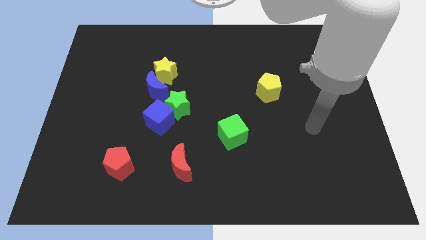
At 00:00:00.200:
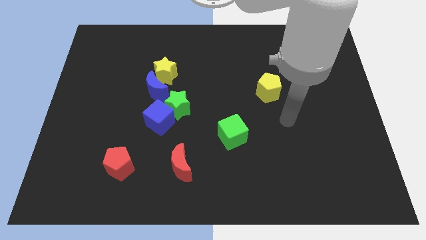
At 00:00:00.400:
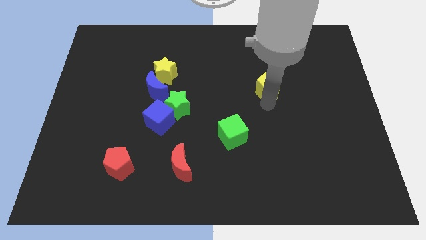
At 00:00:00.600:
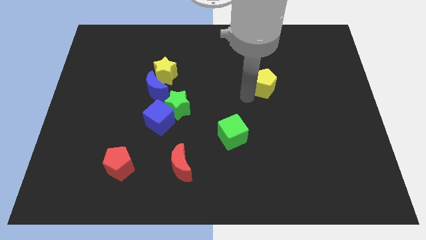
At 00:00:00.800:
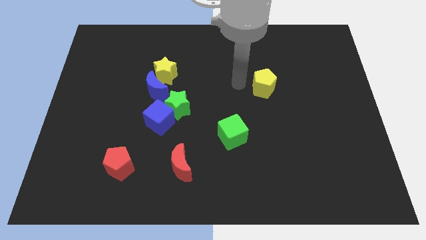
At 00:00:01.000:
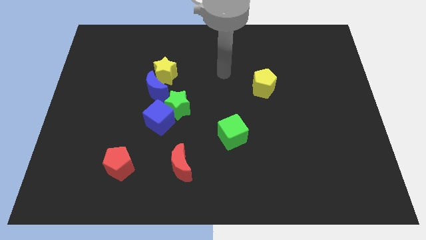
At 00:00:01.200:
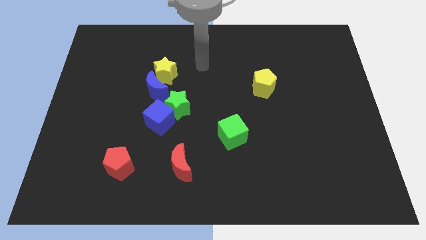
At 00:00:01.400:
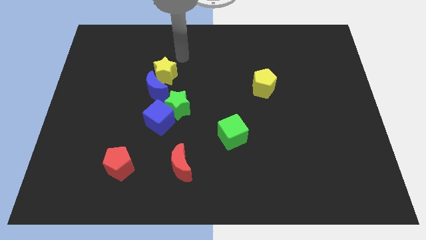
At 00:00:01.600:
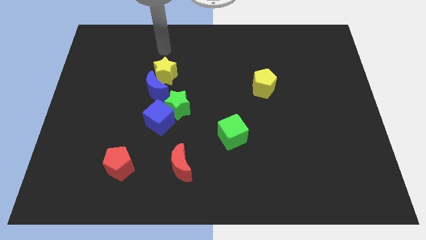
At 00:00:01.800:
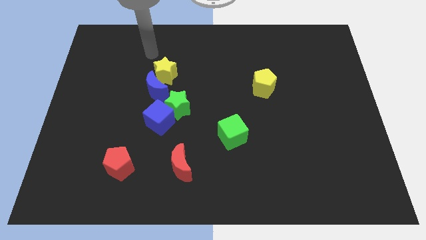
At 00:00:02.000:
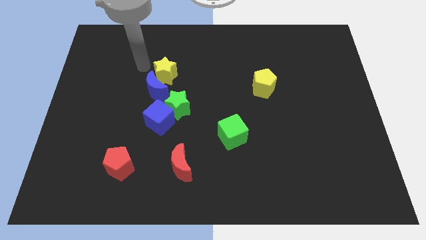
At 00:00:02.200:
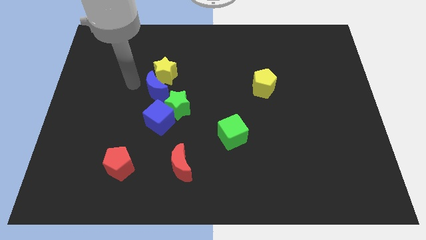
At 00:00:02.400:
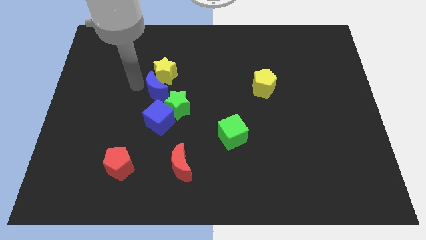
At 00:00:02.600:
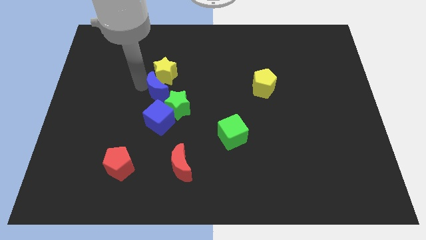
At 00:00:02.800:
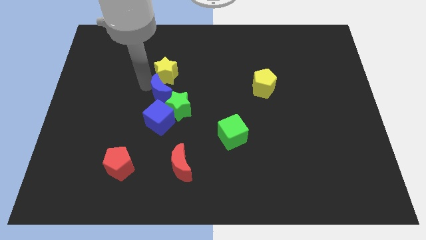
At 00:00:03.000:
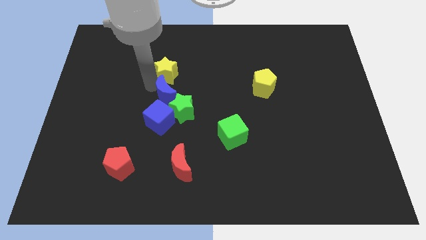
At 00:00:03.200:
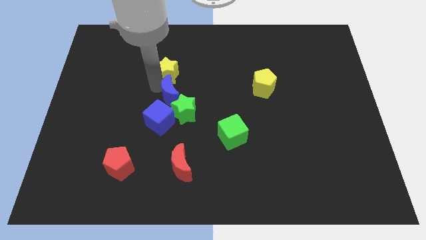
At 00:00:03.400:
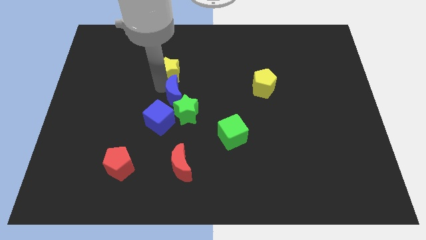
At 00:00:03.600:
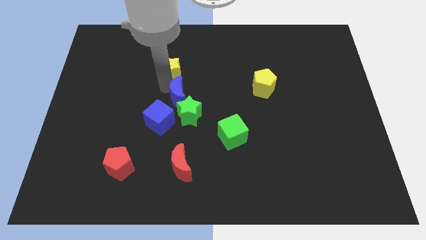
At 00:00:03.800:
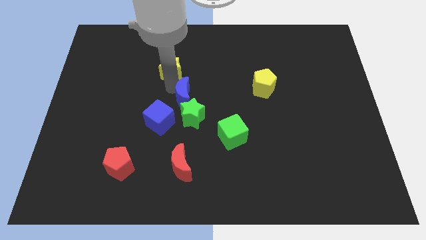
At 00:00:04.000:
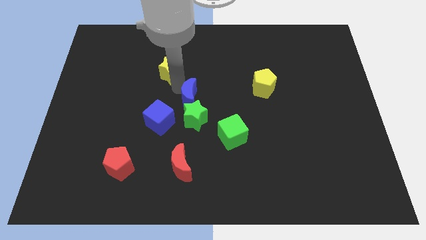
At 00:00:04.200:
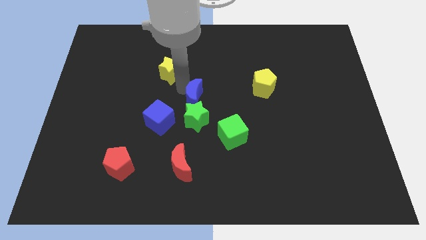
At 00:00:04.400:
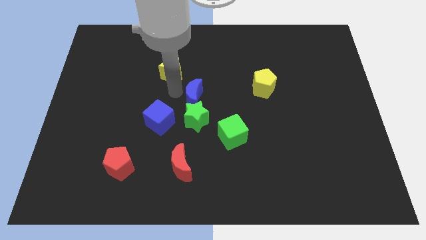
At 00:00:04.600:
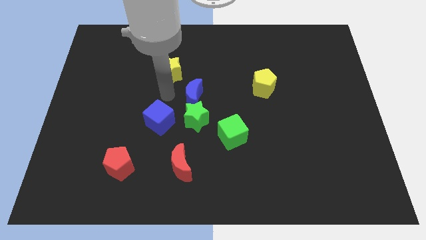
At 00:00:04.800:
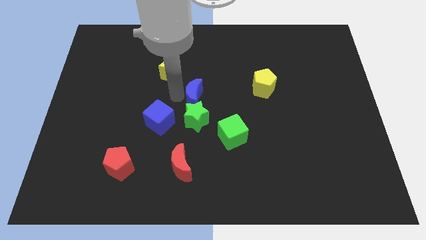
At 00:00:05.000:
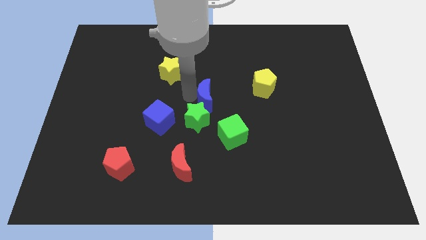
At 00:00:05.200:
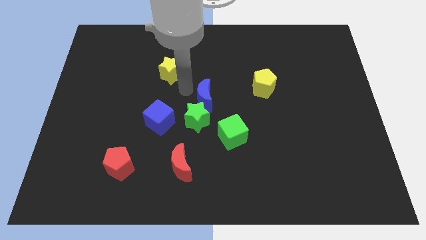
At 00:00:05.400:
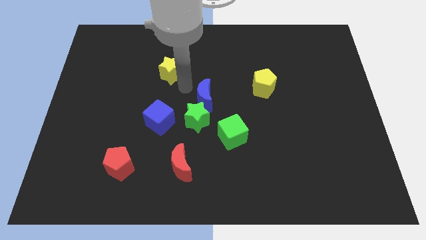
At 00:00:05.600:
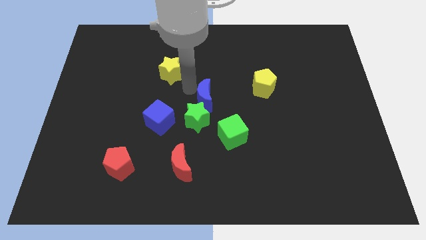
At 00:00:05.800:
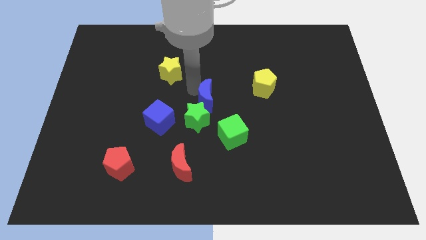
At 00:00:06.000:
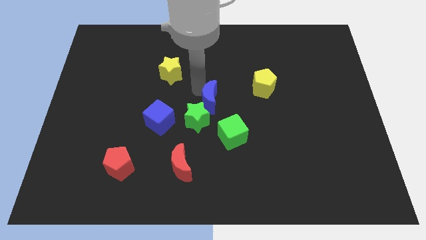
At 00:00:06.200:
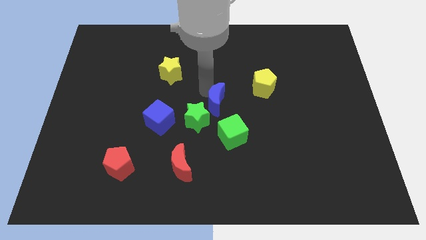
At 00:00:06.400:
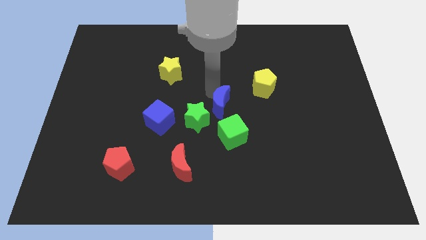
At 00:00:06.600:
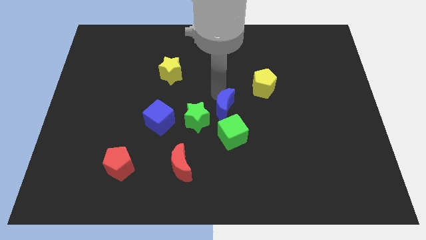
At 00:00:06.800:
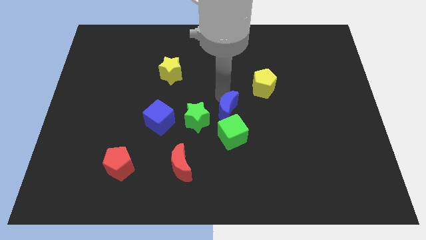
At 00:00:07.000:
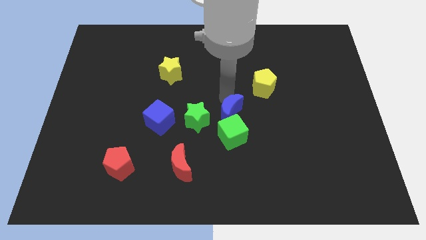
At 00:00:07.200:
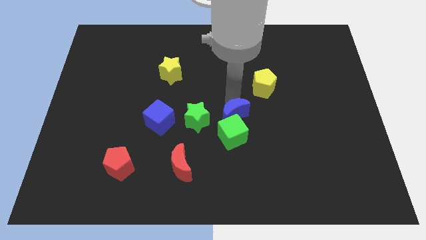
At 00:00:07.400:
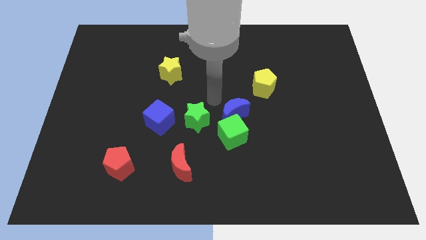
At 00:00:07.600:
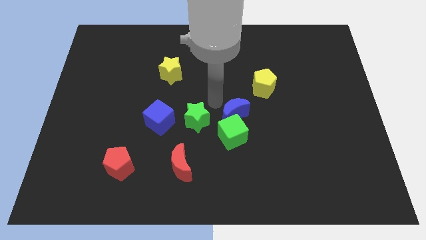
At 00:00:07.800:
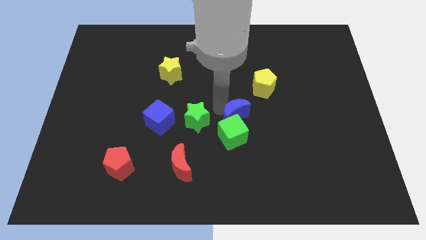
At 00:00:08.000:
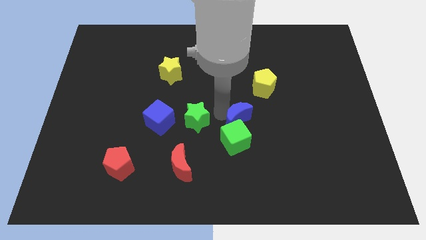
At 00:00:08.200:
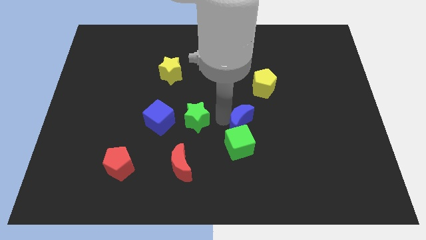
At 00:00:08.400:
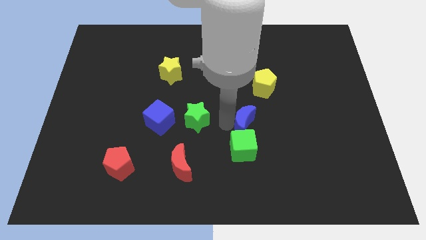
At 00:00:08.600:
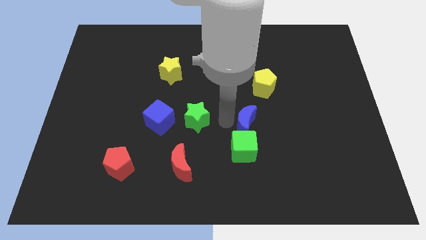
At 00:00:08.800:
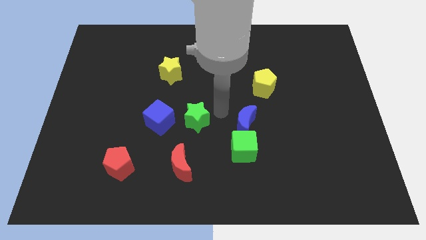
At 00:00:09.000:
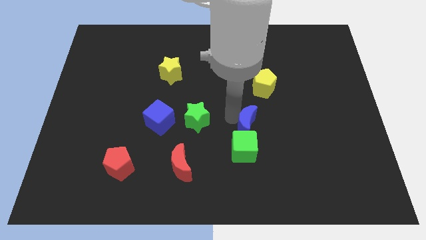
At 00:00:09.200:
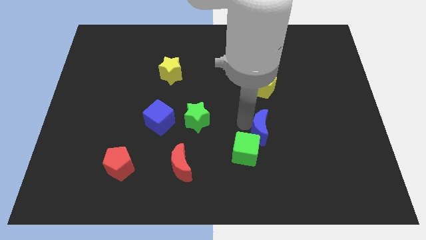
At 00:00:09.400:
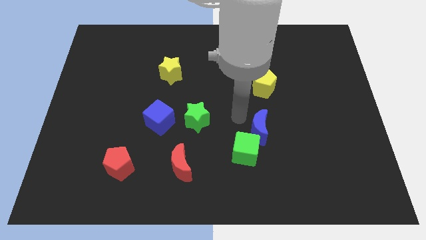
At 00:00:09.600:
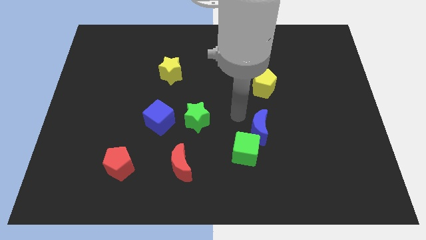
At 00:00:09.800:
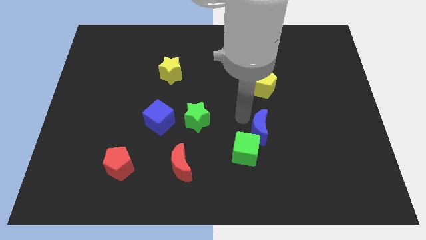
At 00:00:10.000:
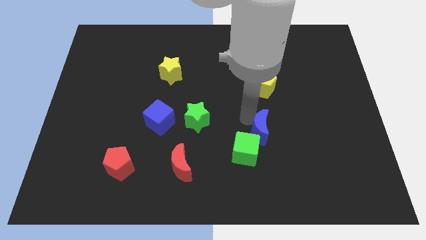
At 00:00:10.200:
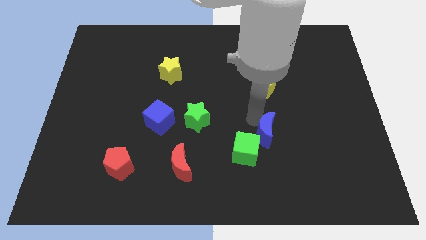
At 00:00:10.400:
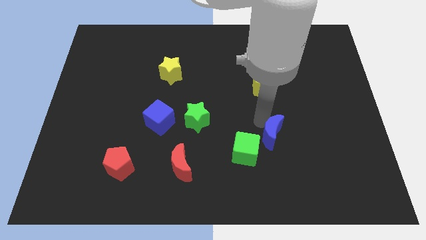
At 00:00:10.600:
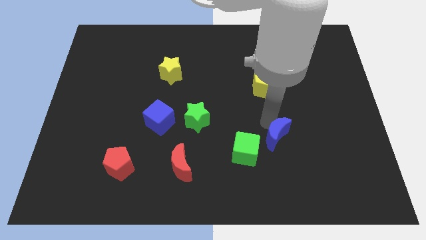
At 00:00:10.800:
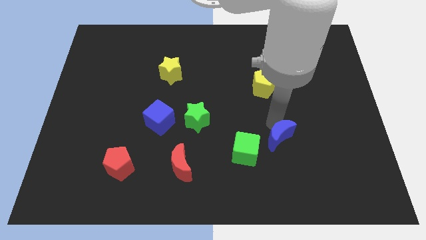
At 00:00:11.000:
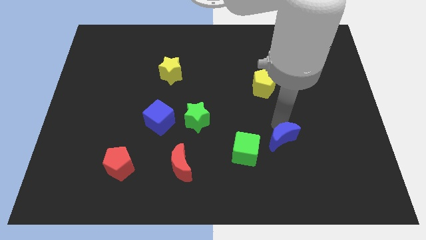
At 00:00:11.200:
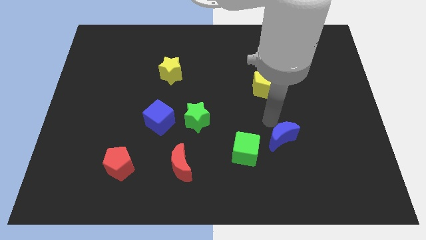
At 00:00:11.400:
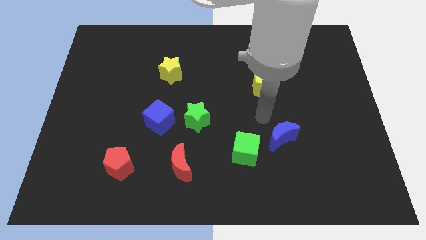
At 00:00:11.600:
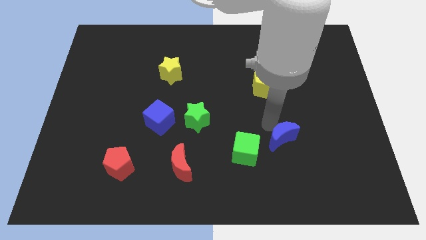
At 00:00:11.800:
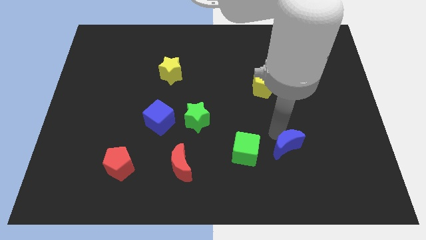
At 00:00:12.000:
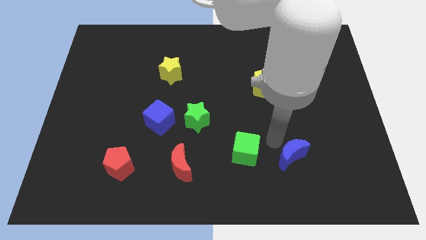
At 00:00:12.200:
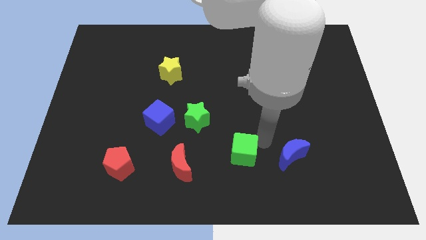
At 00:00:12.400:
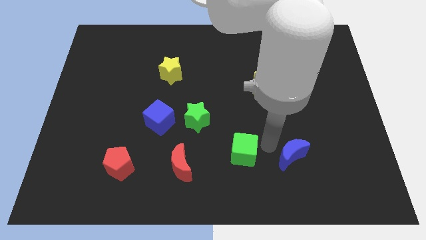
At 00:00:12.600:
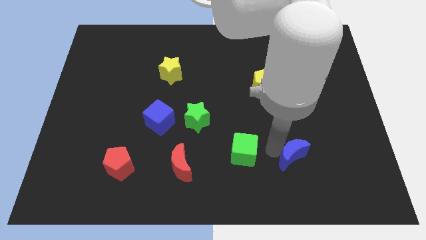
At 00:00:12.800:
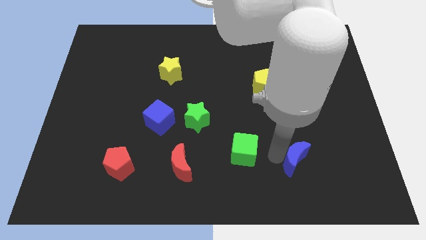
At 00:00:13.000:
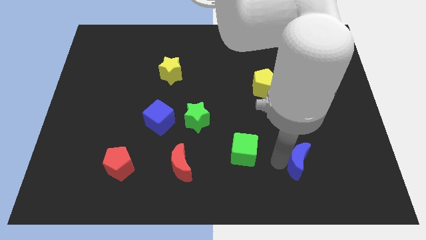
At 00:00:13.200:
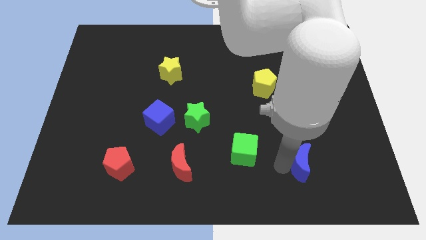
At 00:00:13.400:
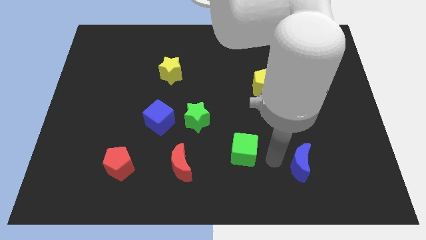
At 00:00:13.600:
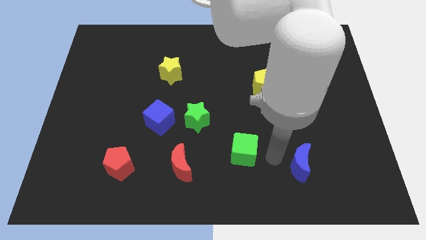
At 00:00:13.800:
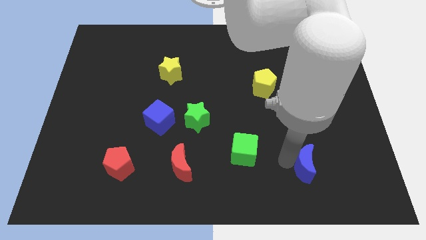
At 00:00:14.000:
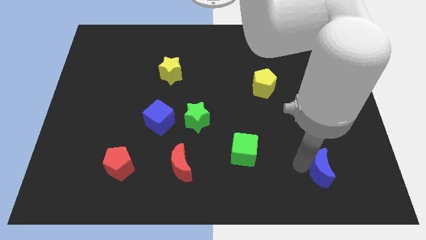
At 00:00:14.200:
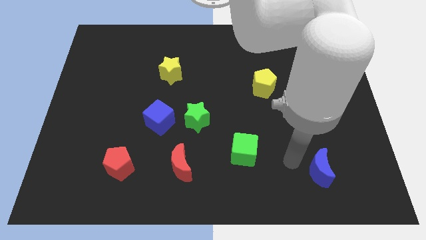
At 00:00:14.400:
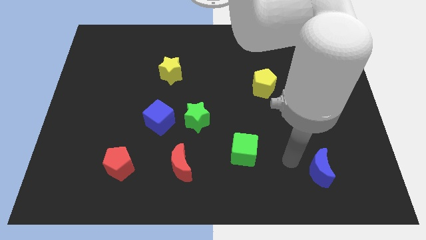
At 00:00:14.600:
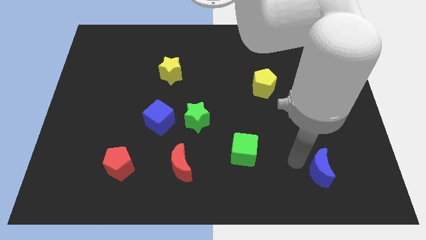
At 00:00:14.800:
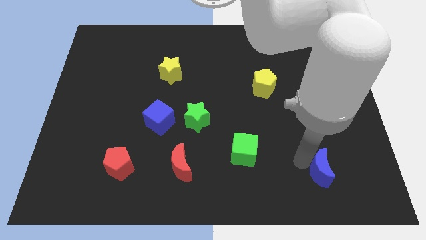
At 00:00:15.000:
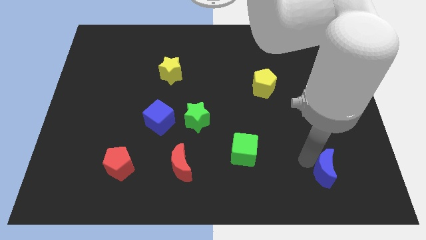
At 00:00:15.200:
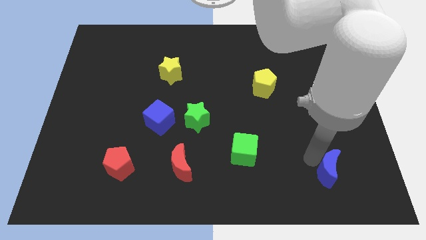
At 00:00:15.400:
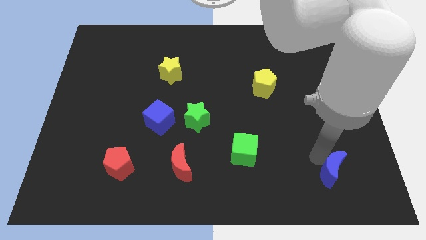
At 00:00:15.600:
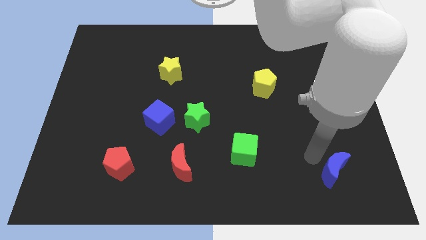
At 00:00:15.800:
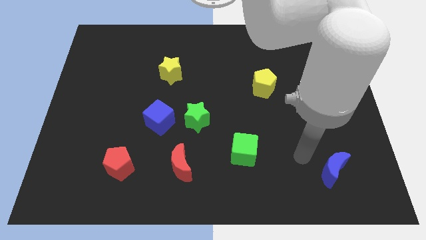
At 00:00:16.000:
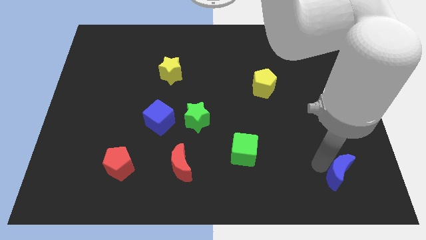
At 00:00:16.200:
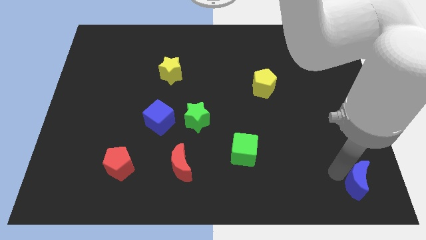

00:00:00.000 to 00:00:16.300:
move the blue moon to the bottom right
